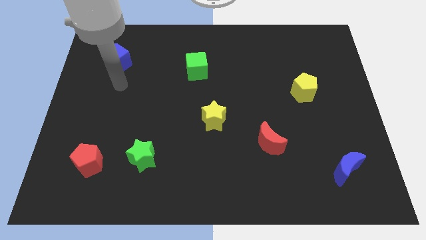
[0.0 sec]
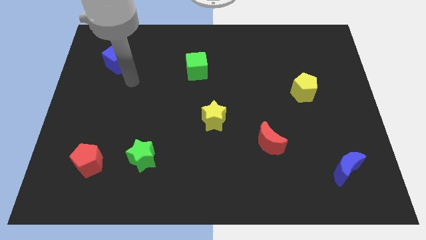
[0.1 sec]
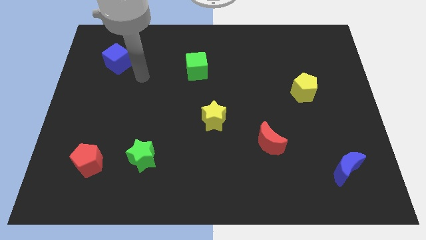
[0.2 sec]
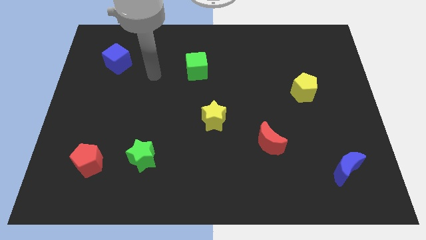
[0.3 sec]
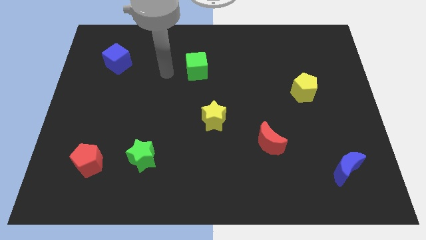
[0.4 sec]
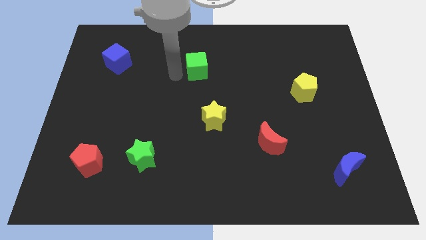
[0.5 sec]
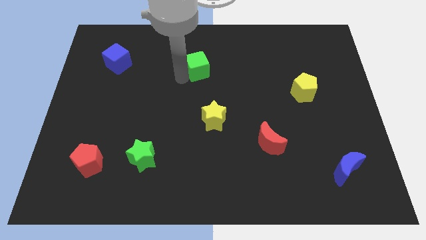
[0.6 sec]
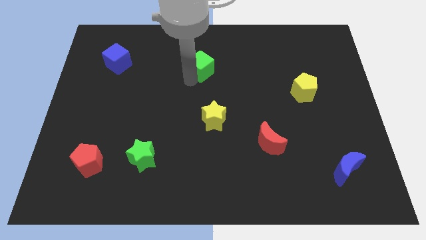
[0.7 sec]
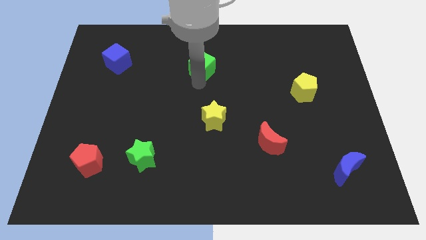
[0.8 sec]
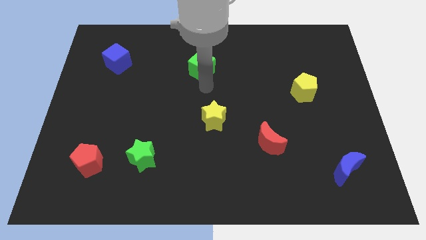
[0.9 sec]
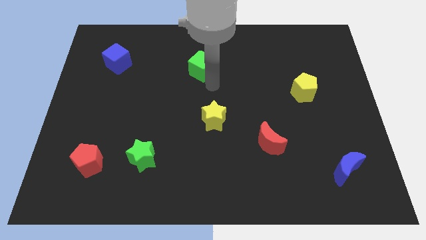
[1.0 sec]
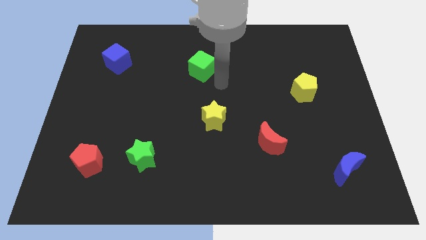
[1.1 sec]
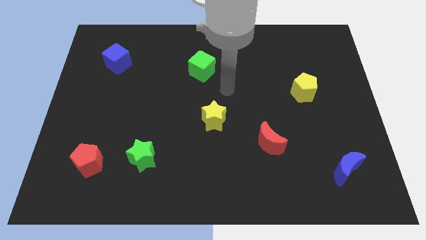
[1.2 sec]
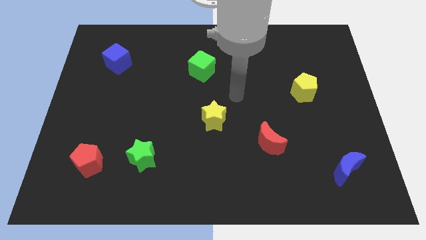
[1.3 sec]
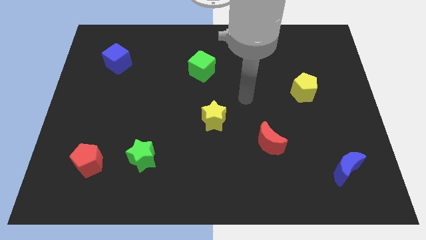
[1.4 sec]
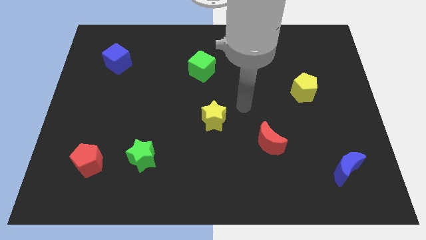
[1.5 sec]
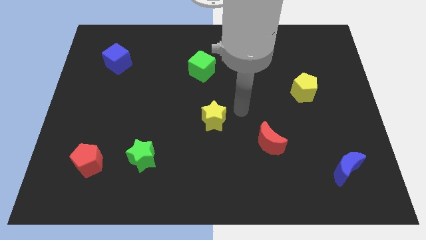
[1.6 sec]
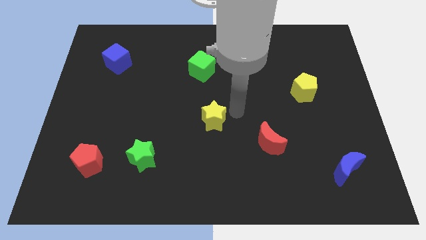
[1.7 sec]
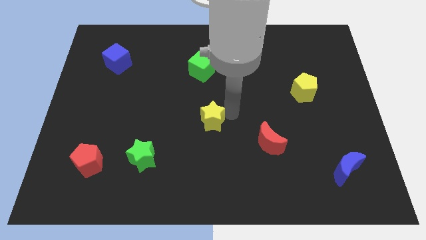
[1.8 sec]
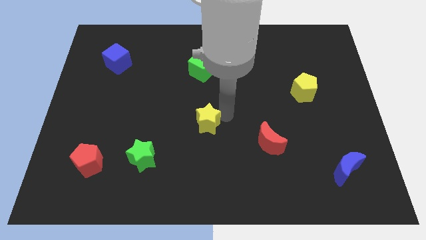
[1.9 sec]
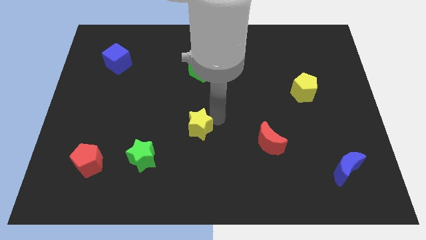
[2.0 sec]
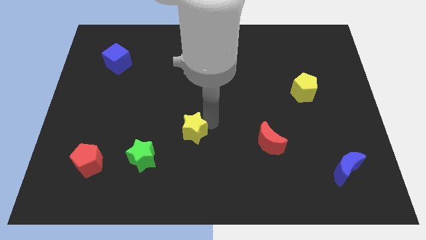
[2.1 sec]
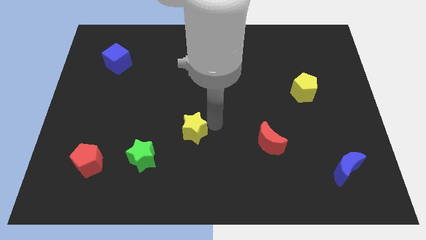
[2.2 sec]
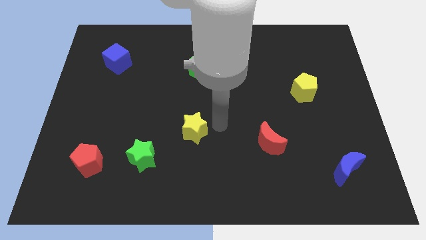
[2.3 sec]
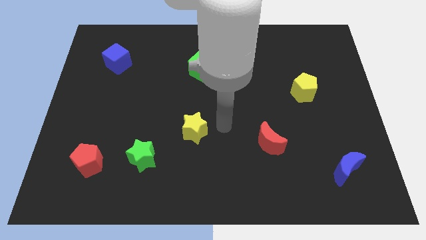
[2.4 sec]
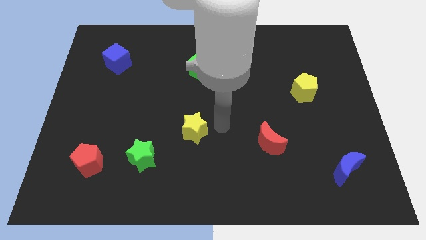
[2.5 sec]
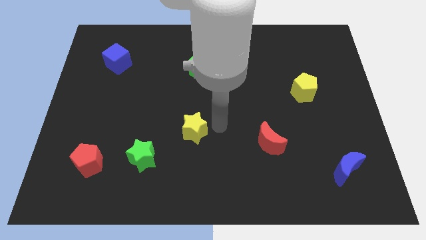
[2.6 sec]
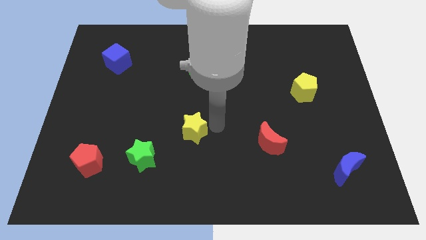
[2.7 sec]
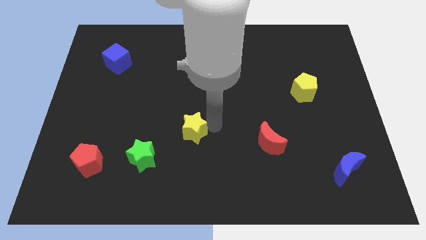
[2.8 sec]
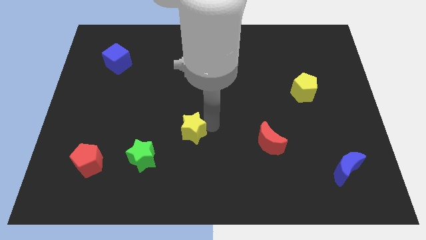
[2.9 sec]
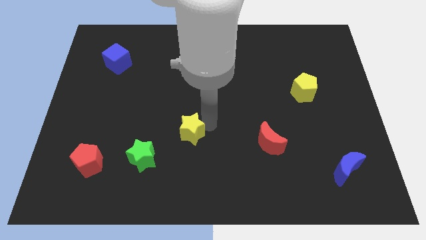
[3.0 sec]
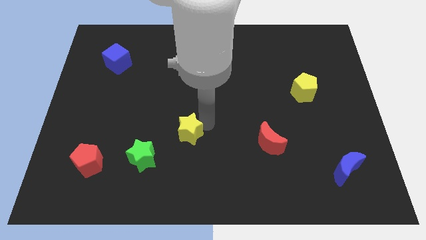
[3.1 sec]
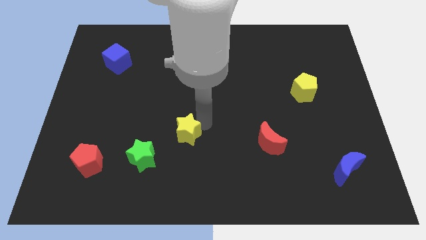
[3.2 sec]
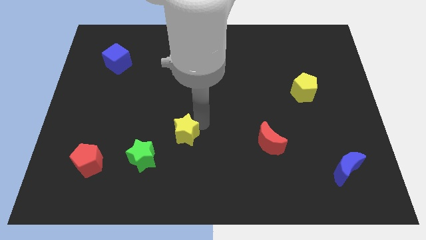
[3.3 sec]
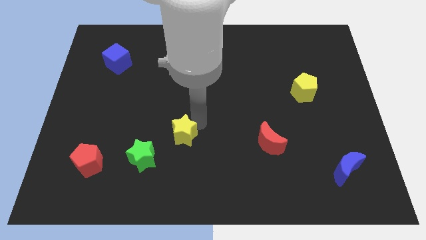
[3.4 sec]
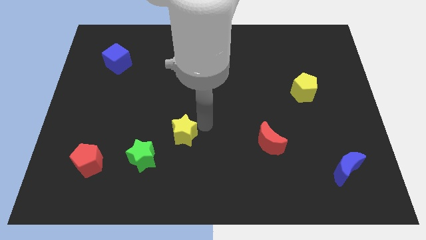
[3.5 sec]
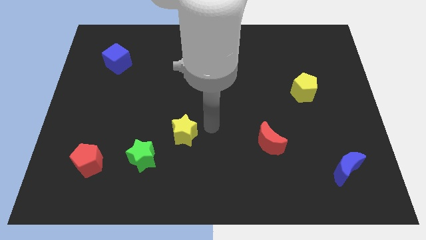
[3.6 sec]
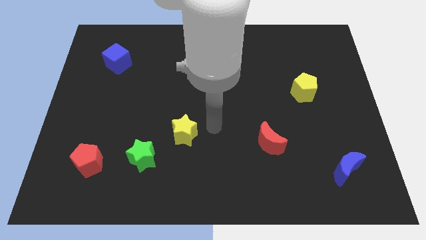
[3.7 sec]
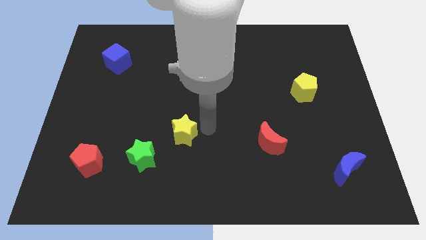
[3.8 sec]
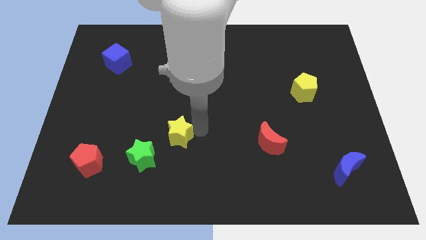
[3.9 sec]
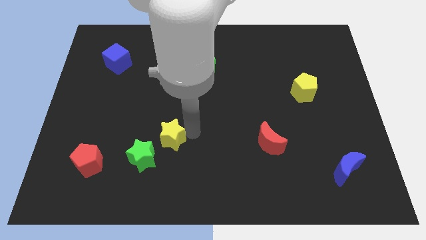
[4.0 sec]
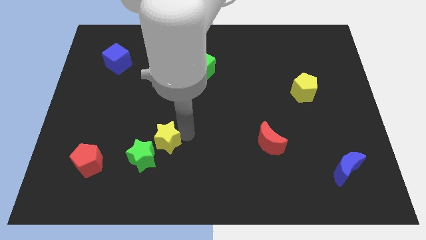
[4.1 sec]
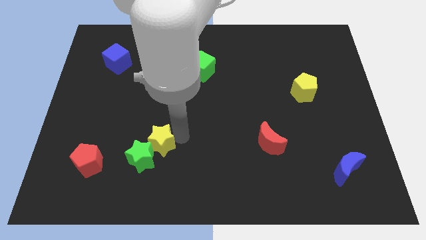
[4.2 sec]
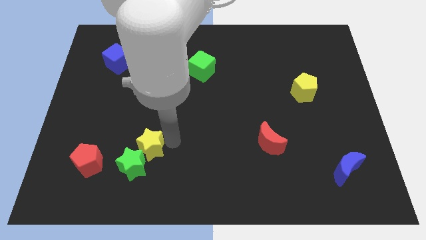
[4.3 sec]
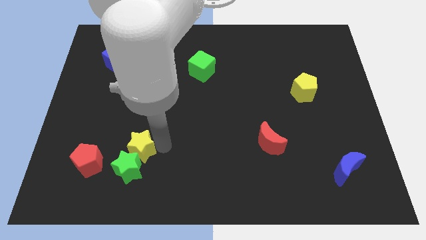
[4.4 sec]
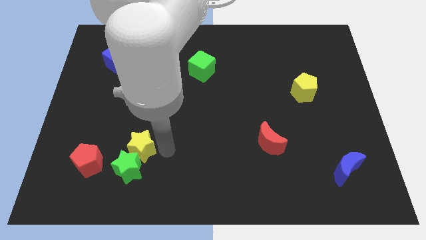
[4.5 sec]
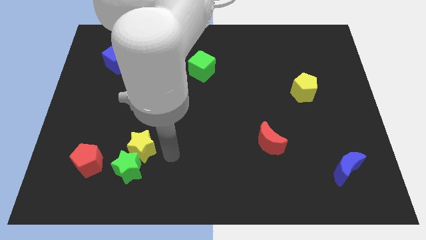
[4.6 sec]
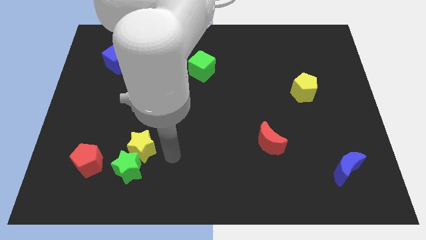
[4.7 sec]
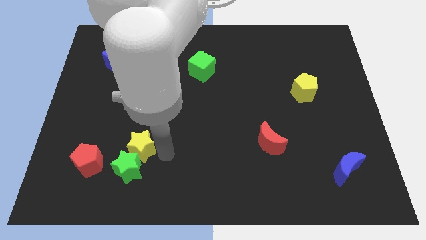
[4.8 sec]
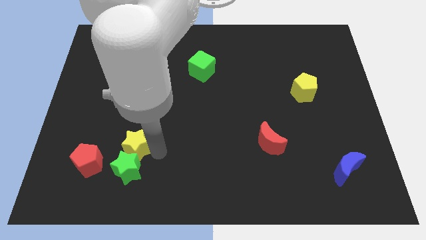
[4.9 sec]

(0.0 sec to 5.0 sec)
move the yellow star to the top right of the red pentagon

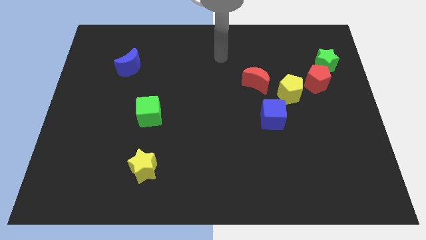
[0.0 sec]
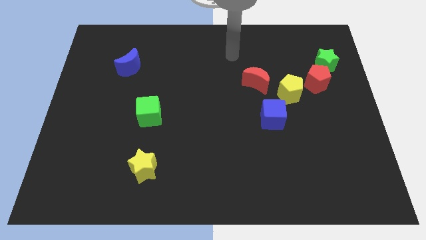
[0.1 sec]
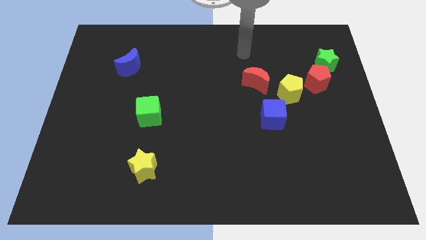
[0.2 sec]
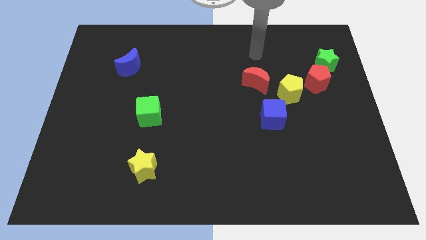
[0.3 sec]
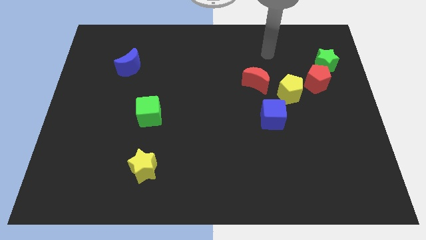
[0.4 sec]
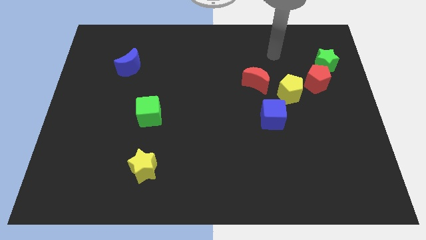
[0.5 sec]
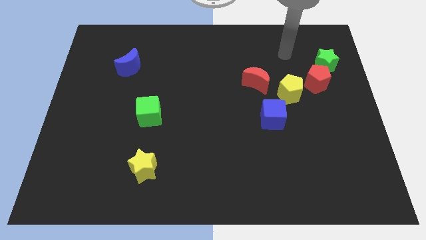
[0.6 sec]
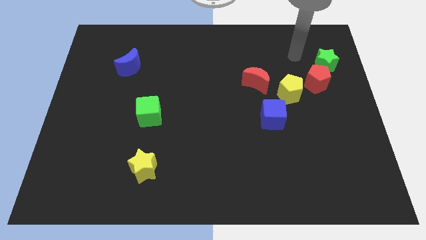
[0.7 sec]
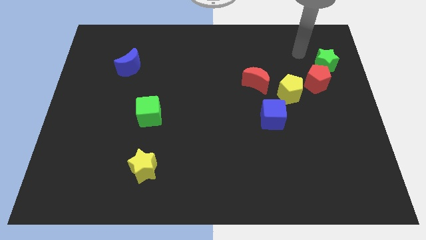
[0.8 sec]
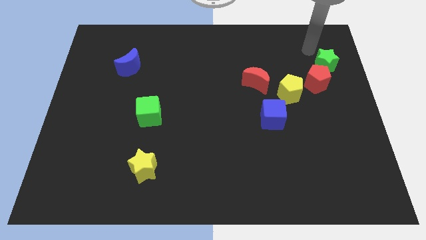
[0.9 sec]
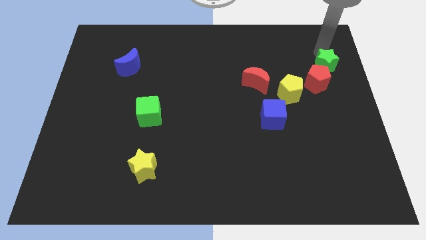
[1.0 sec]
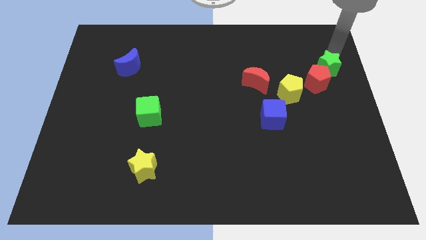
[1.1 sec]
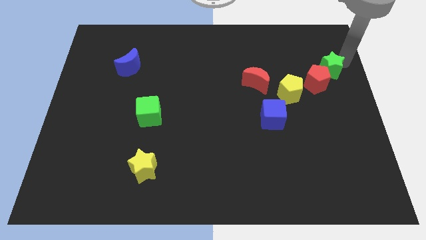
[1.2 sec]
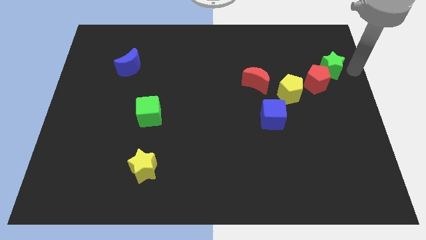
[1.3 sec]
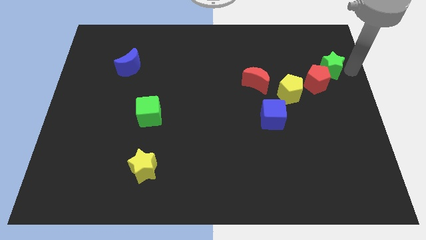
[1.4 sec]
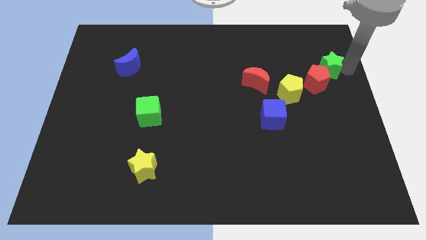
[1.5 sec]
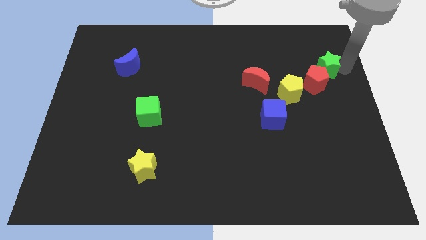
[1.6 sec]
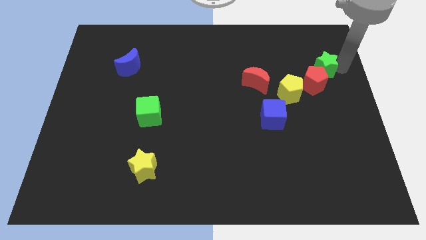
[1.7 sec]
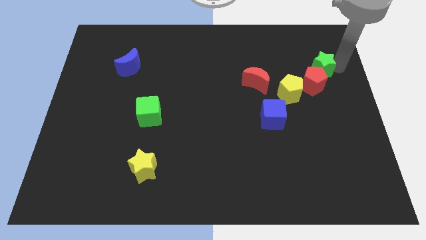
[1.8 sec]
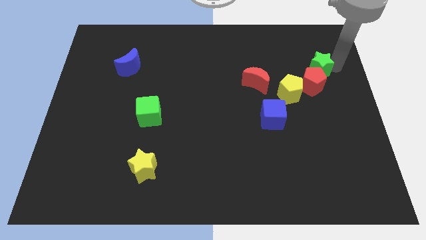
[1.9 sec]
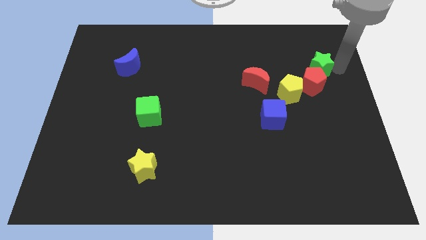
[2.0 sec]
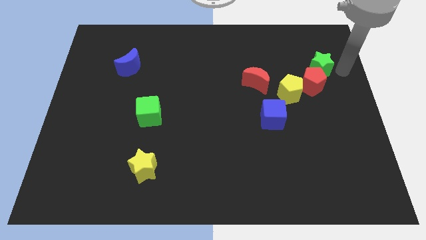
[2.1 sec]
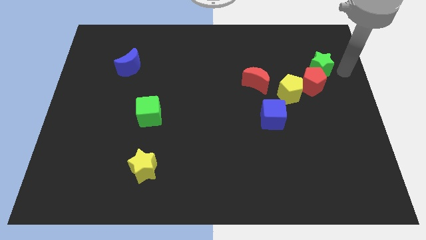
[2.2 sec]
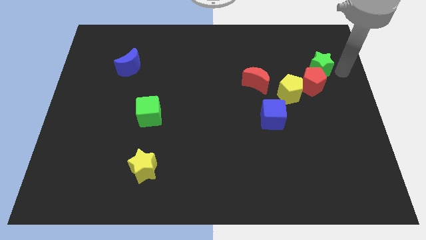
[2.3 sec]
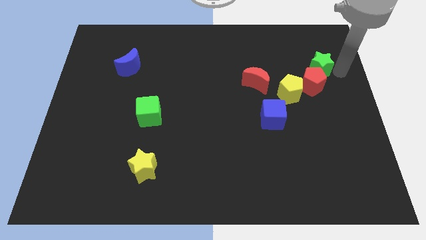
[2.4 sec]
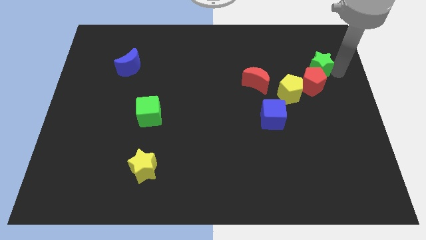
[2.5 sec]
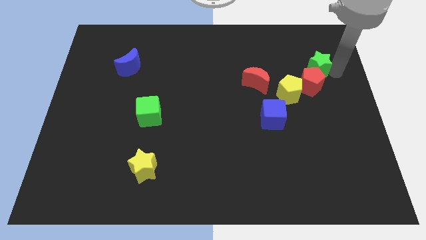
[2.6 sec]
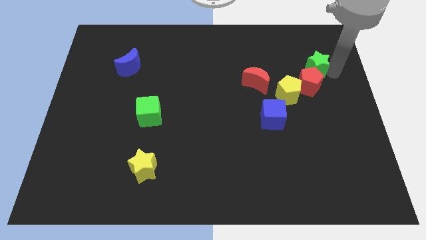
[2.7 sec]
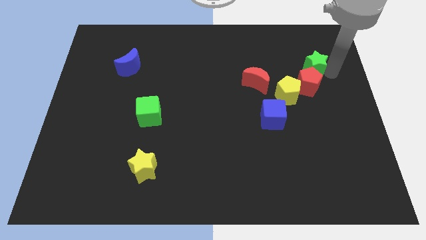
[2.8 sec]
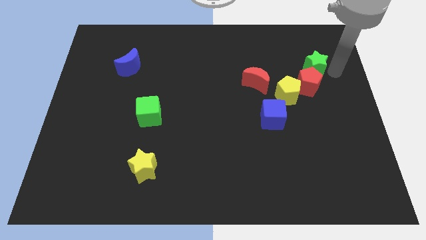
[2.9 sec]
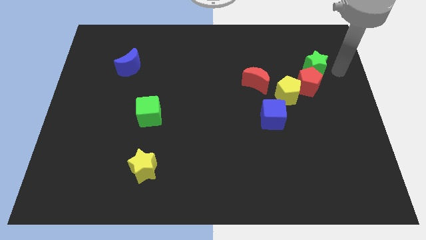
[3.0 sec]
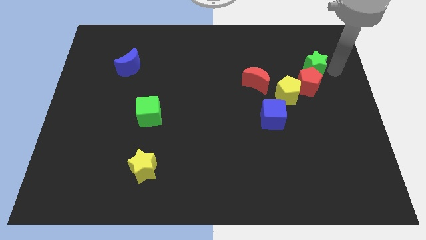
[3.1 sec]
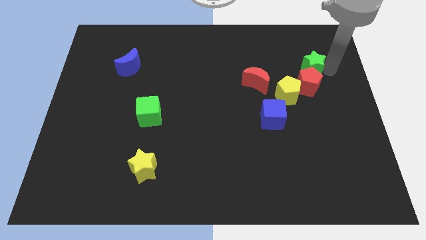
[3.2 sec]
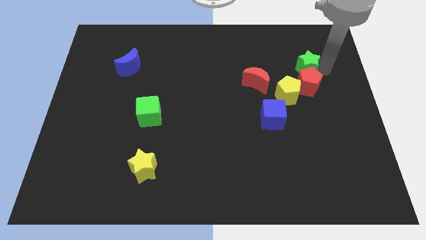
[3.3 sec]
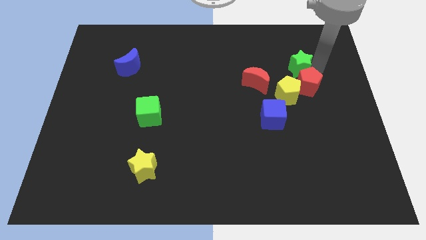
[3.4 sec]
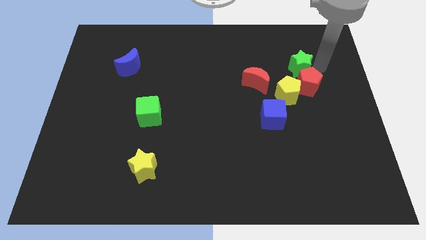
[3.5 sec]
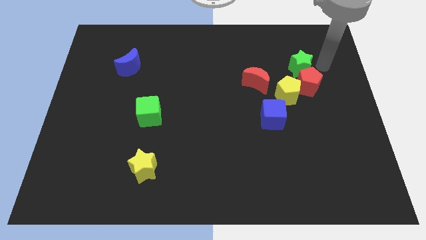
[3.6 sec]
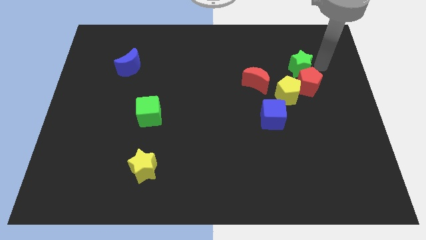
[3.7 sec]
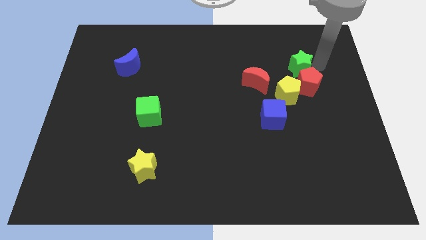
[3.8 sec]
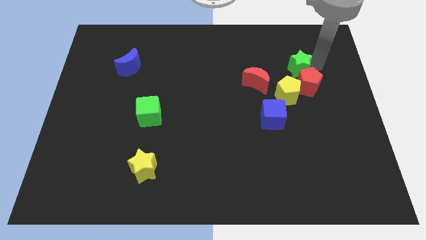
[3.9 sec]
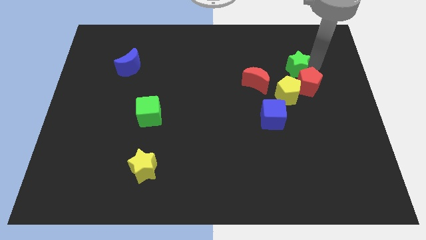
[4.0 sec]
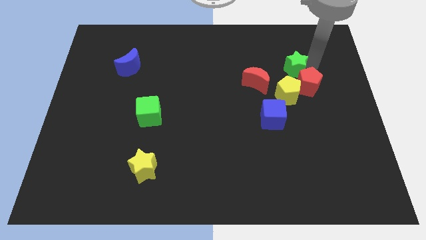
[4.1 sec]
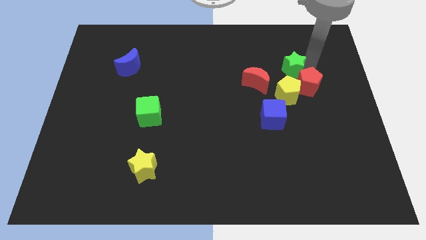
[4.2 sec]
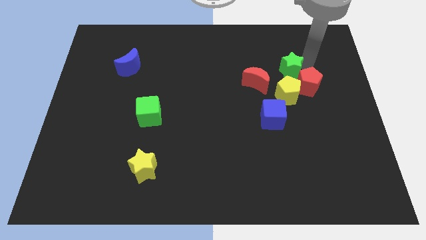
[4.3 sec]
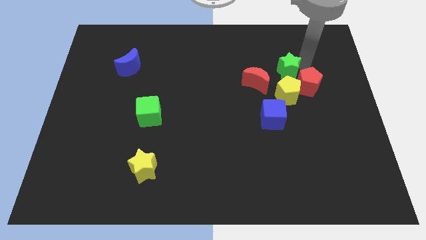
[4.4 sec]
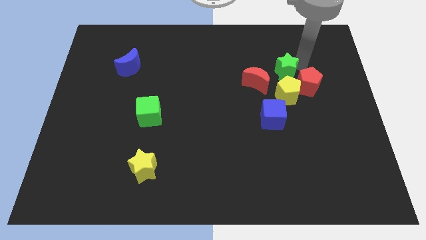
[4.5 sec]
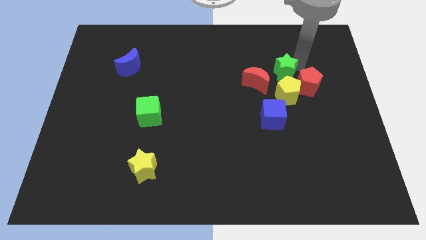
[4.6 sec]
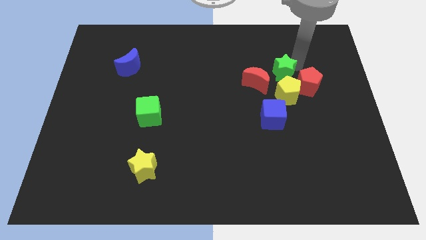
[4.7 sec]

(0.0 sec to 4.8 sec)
put the green star to the top of the blue cube
